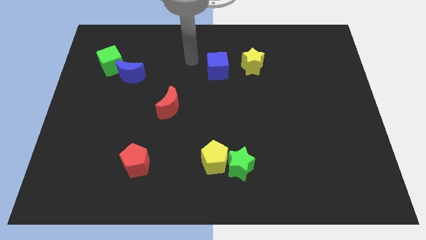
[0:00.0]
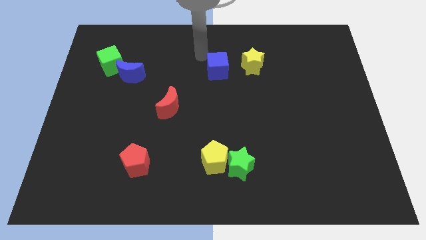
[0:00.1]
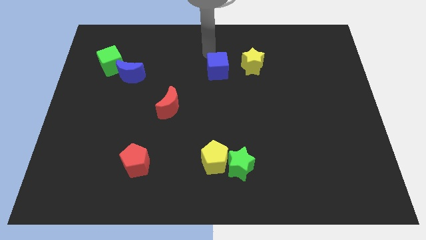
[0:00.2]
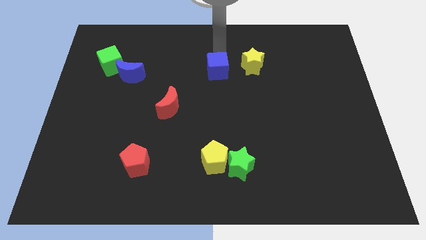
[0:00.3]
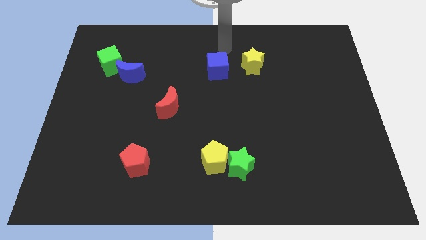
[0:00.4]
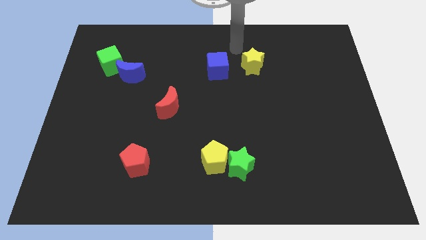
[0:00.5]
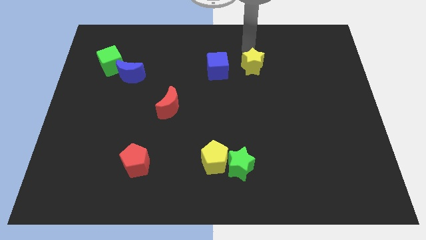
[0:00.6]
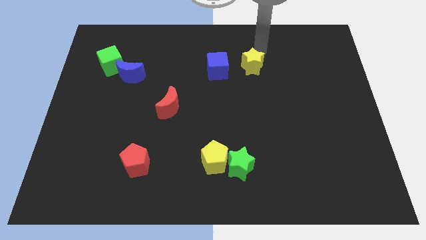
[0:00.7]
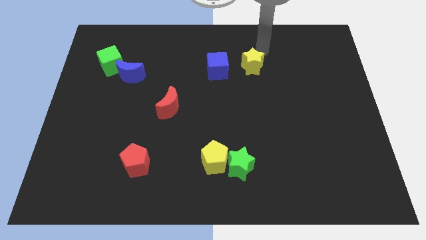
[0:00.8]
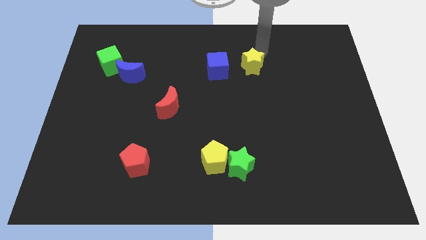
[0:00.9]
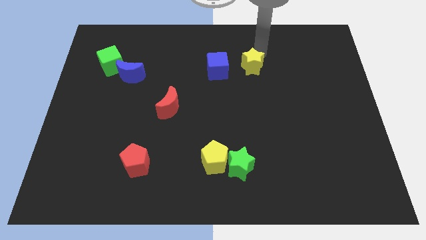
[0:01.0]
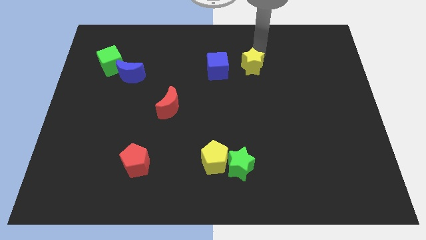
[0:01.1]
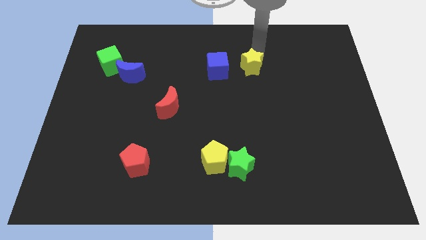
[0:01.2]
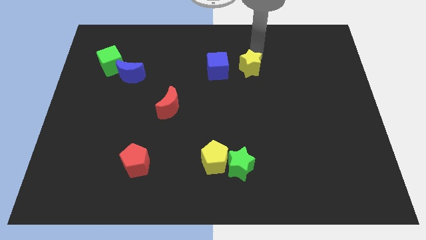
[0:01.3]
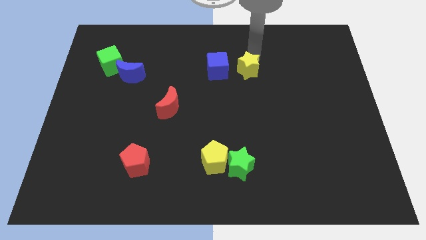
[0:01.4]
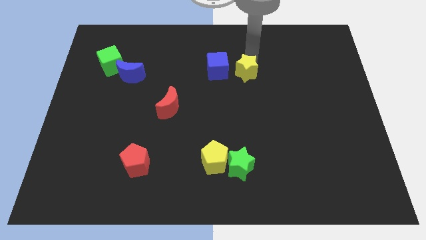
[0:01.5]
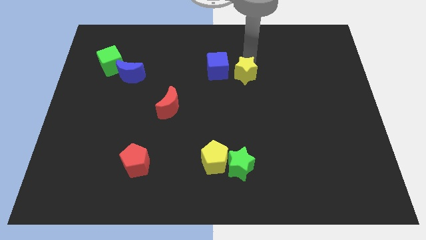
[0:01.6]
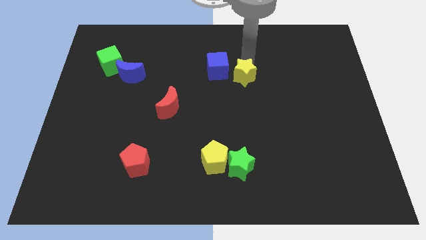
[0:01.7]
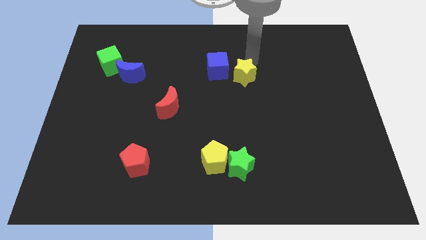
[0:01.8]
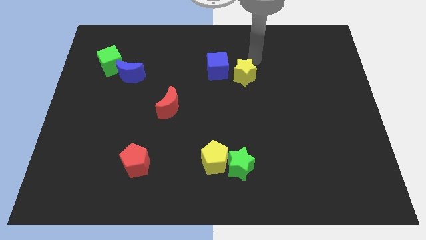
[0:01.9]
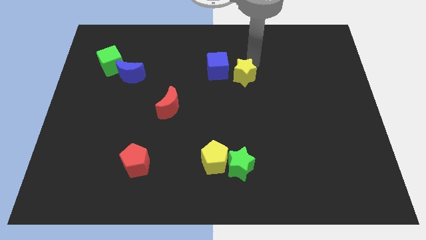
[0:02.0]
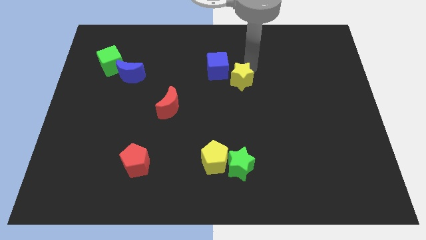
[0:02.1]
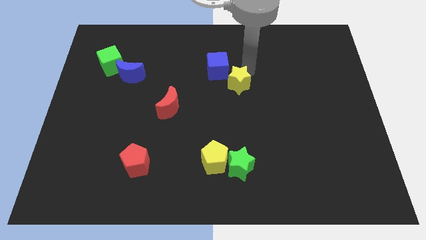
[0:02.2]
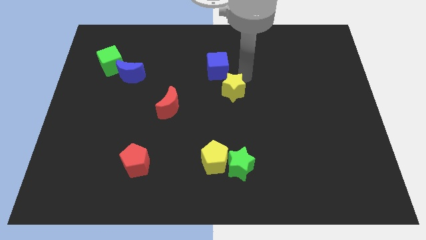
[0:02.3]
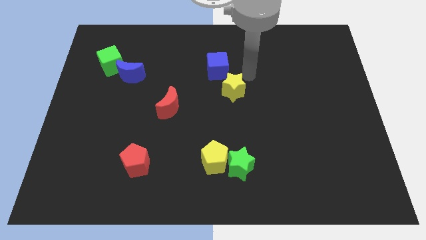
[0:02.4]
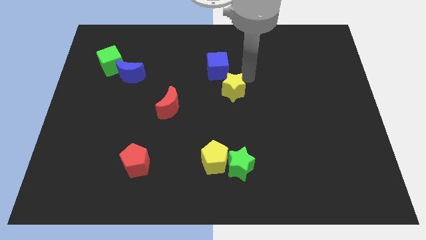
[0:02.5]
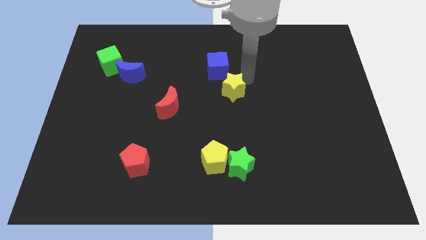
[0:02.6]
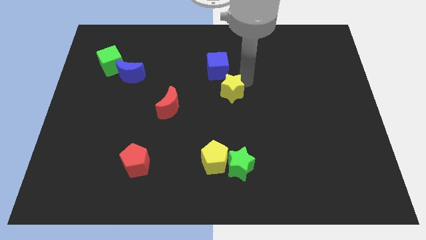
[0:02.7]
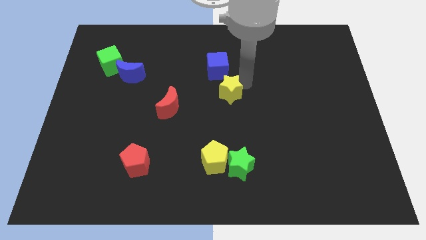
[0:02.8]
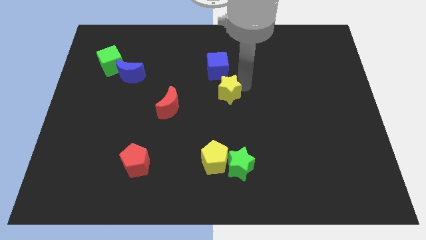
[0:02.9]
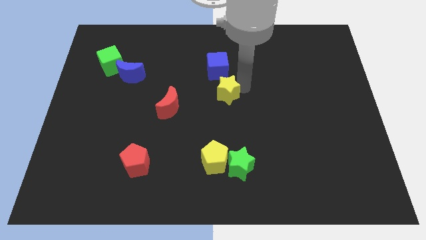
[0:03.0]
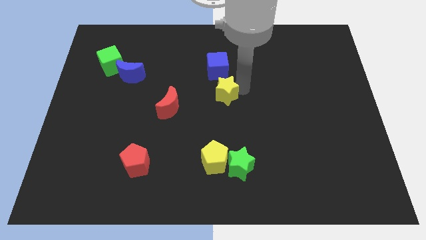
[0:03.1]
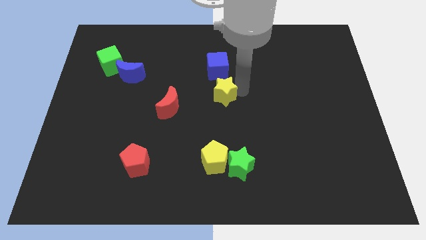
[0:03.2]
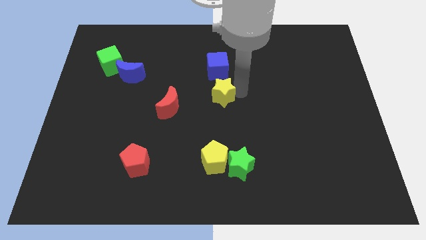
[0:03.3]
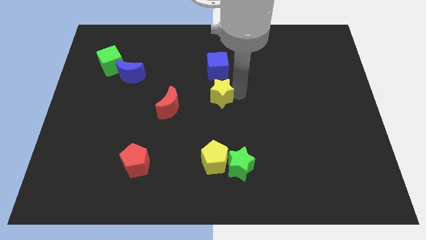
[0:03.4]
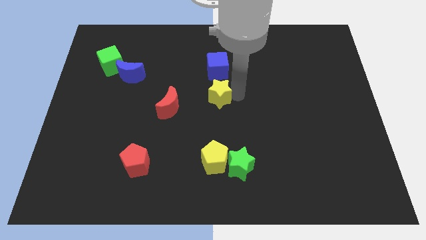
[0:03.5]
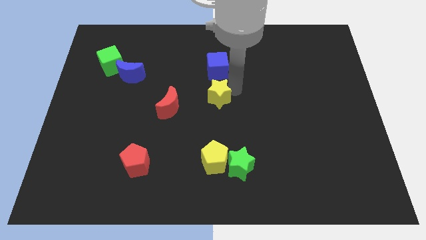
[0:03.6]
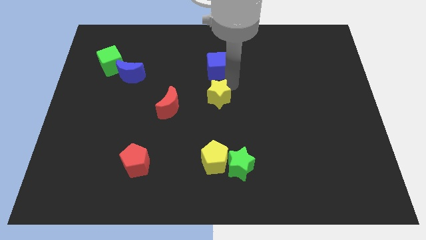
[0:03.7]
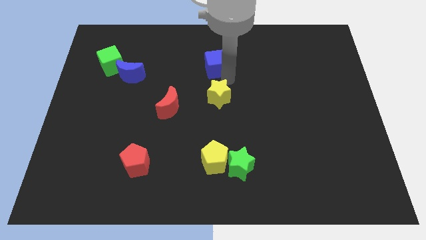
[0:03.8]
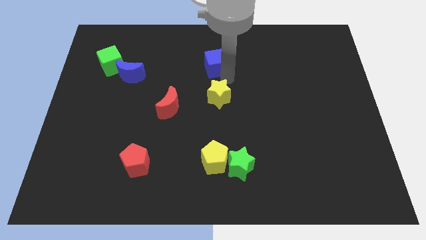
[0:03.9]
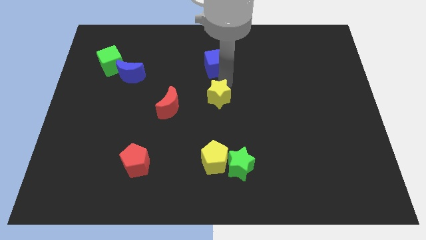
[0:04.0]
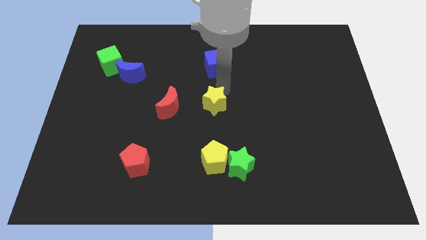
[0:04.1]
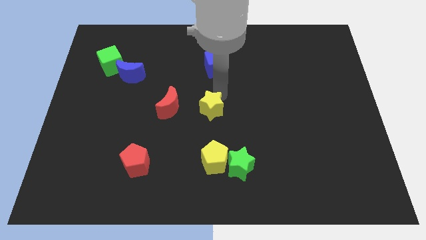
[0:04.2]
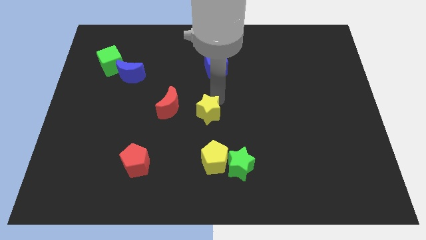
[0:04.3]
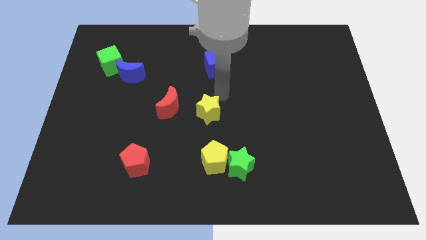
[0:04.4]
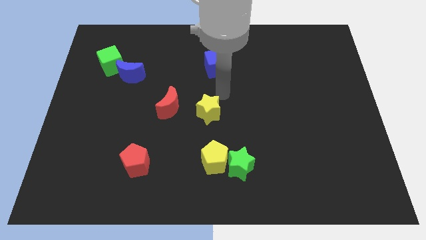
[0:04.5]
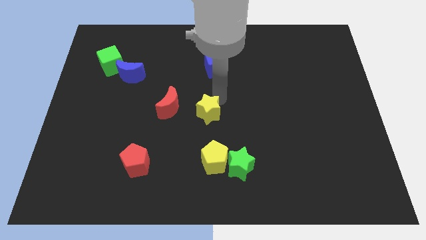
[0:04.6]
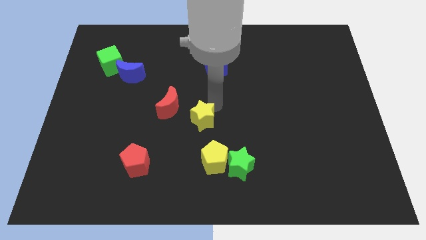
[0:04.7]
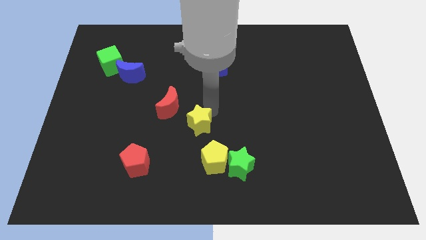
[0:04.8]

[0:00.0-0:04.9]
move the yellow star diagonally up and to the left of the yellow pentagon

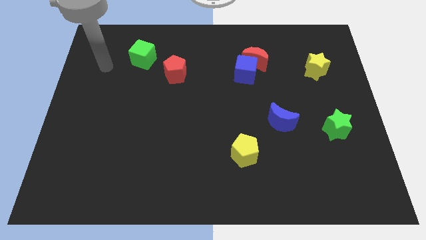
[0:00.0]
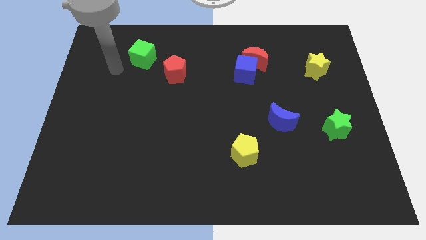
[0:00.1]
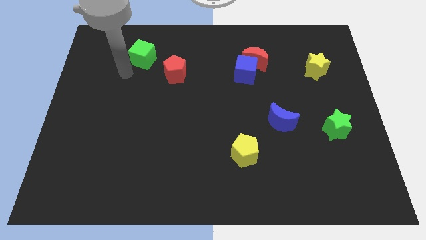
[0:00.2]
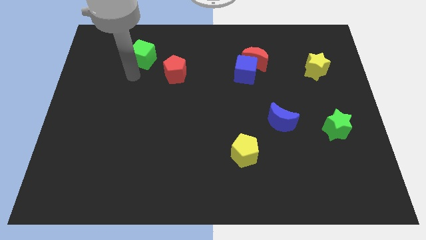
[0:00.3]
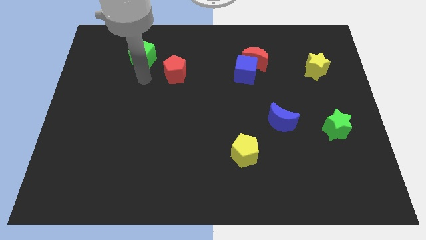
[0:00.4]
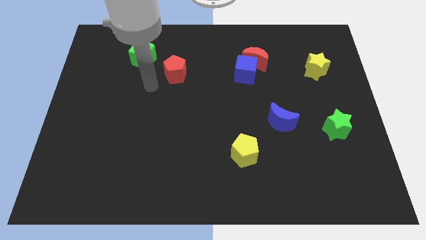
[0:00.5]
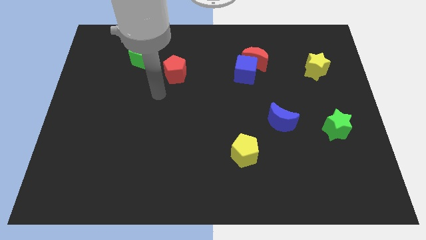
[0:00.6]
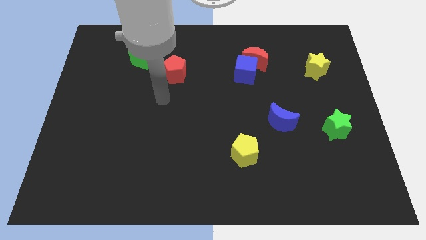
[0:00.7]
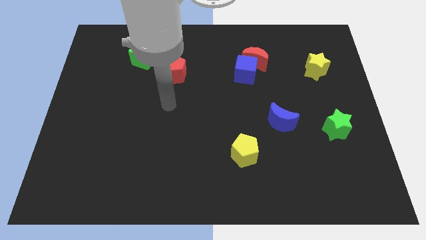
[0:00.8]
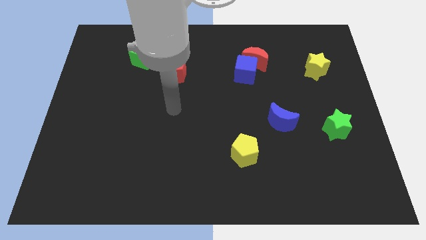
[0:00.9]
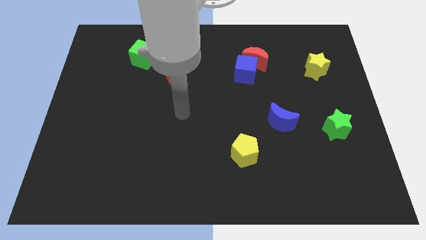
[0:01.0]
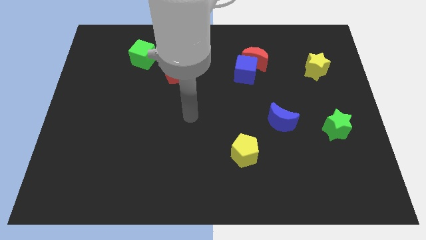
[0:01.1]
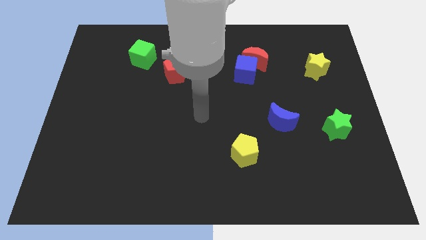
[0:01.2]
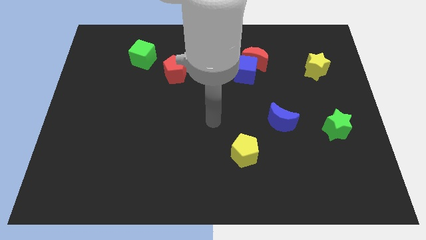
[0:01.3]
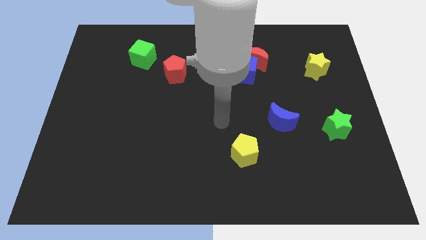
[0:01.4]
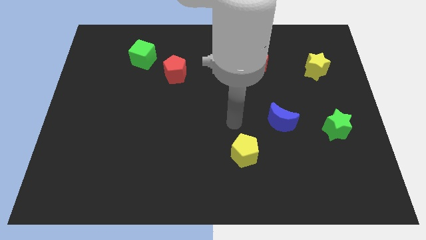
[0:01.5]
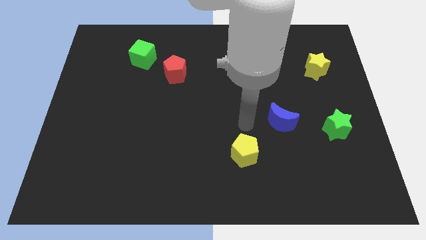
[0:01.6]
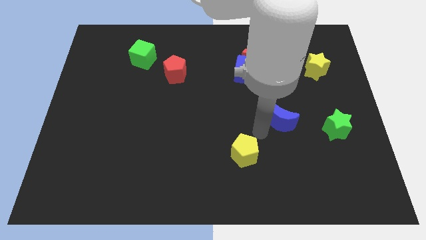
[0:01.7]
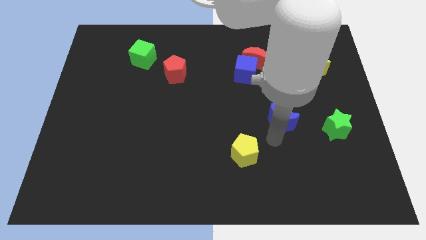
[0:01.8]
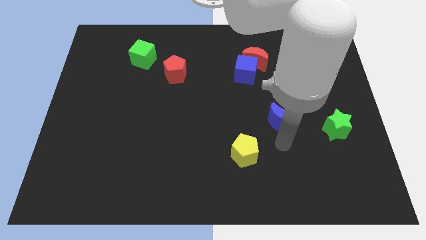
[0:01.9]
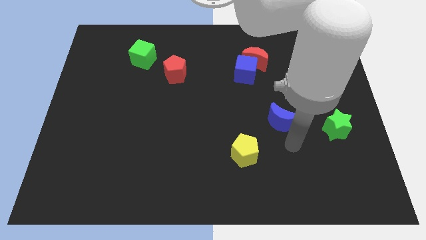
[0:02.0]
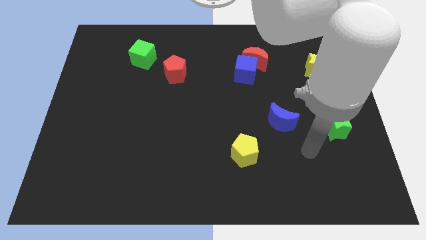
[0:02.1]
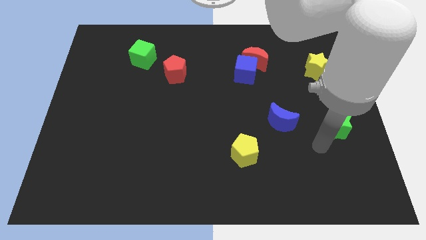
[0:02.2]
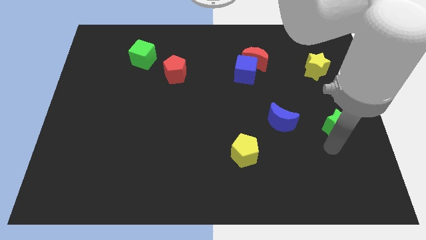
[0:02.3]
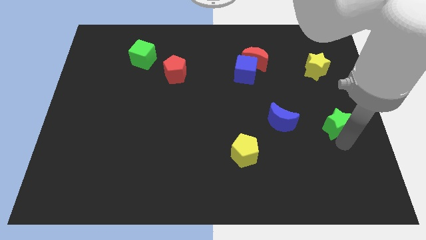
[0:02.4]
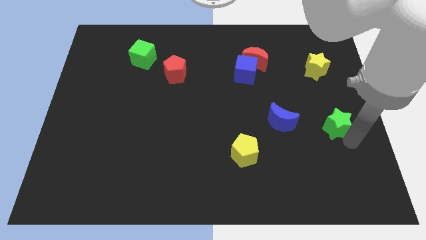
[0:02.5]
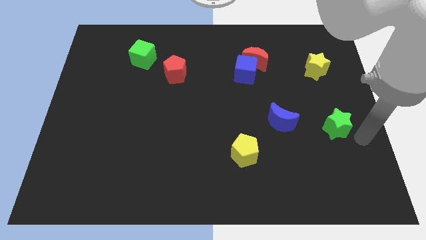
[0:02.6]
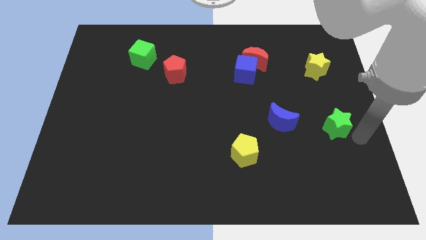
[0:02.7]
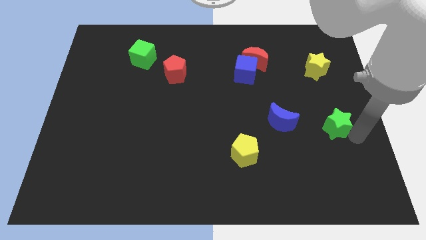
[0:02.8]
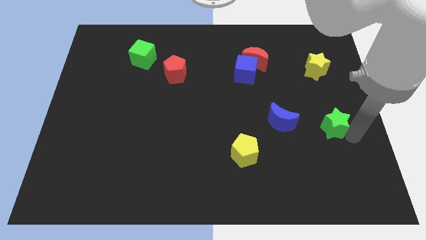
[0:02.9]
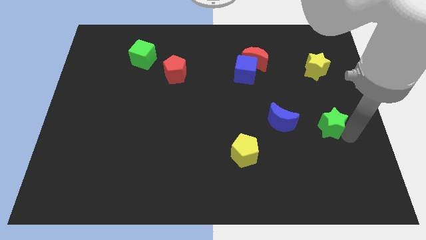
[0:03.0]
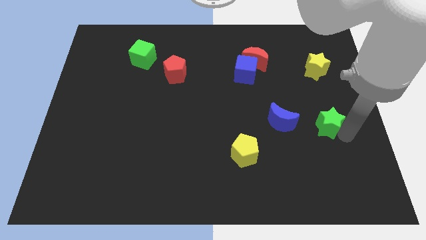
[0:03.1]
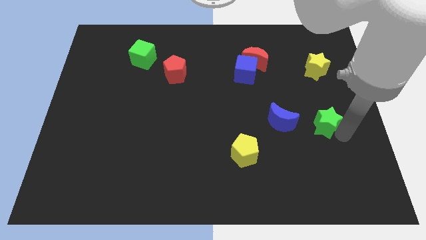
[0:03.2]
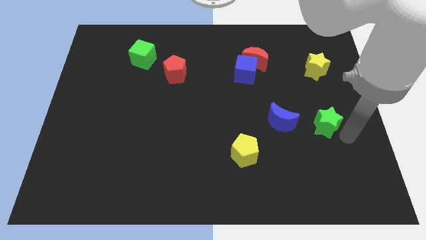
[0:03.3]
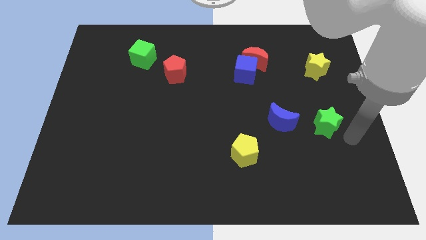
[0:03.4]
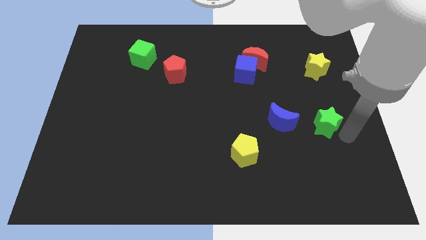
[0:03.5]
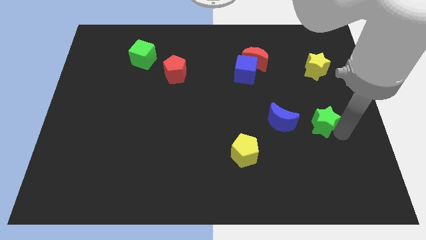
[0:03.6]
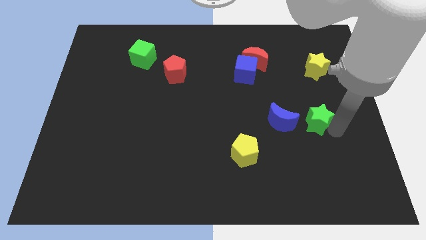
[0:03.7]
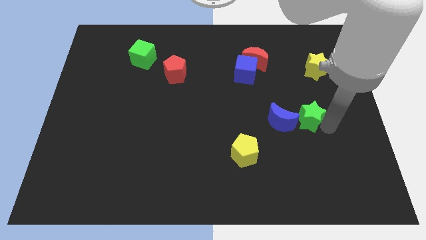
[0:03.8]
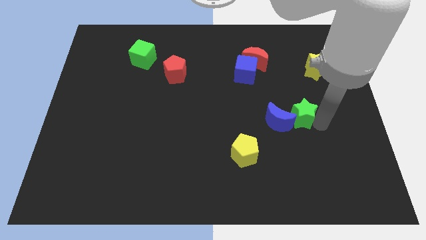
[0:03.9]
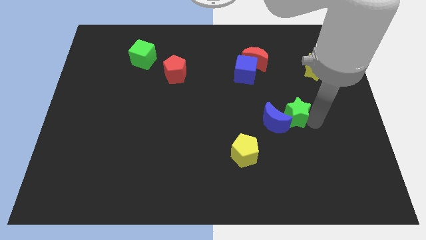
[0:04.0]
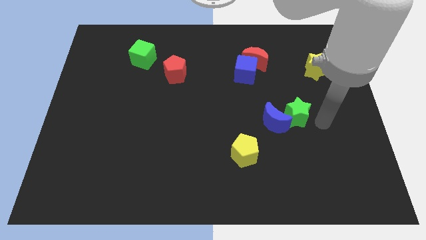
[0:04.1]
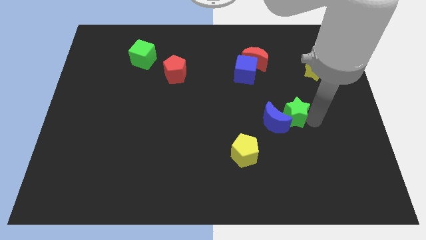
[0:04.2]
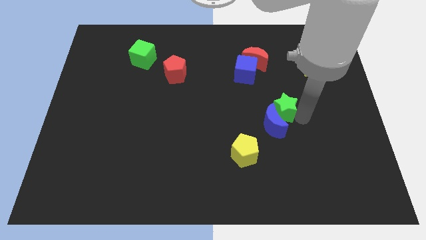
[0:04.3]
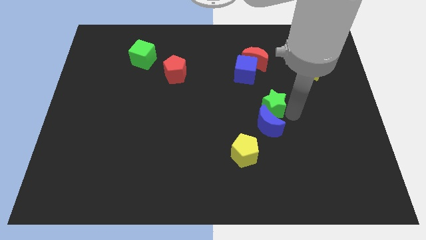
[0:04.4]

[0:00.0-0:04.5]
slide the green star diagonally up and to the left of the blue moon
